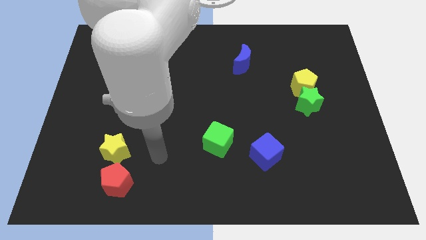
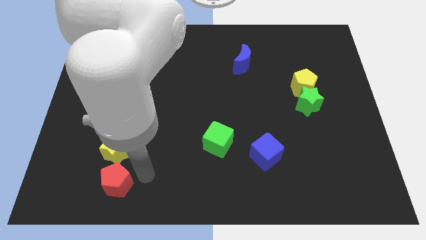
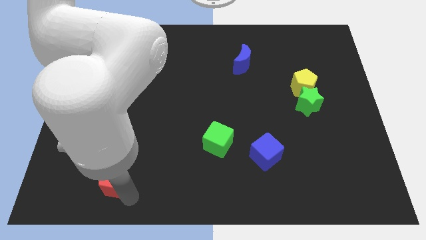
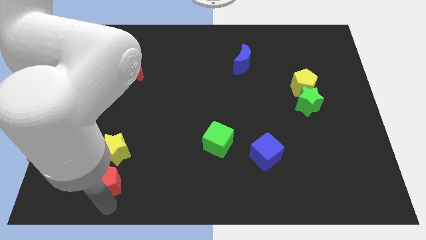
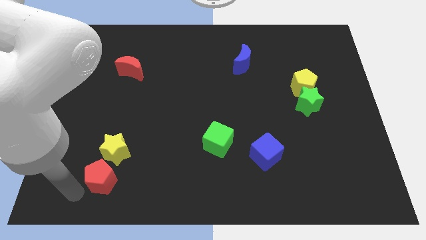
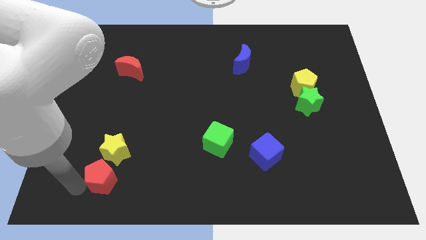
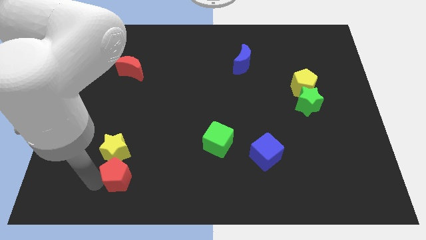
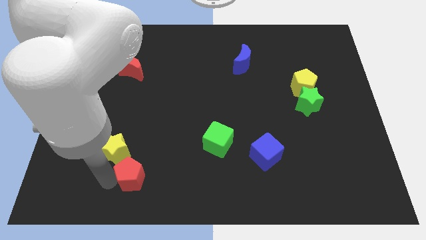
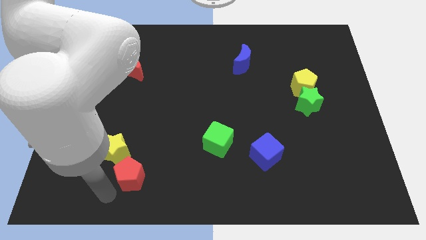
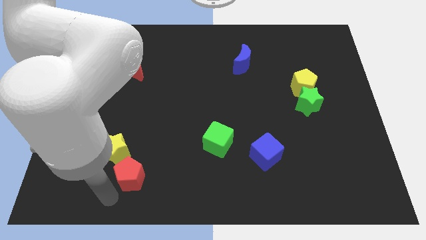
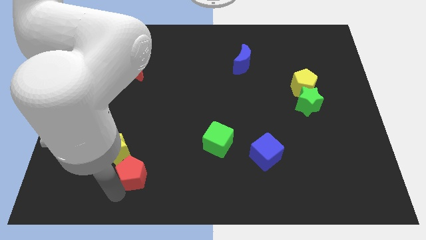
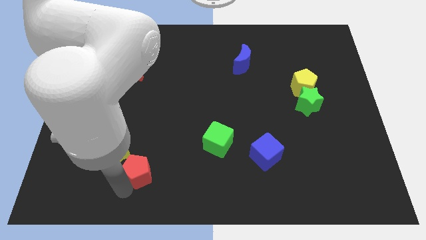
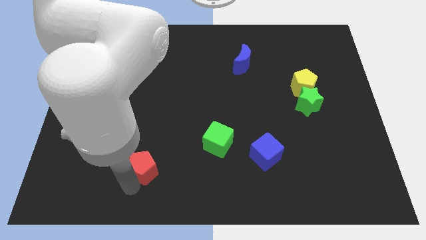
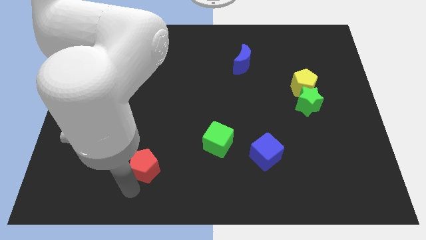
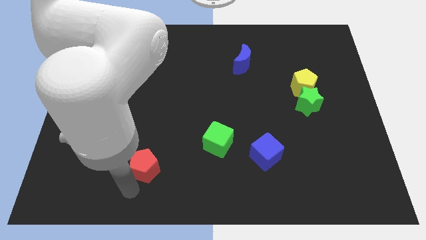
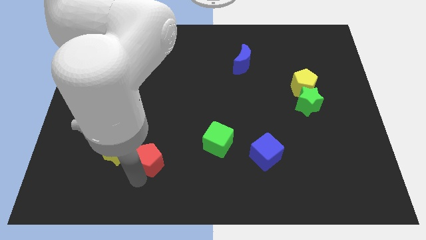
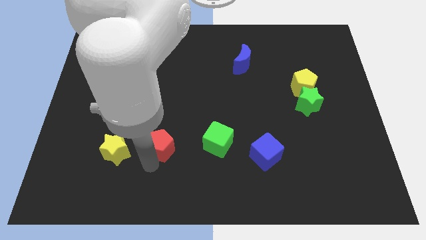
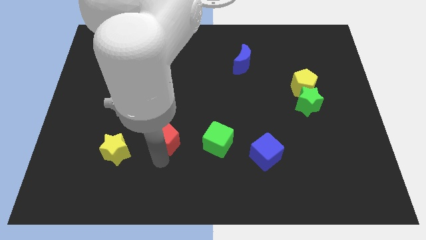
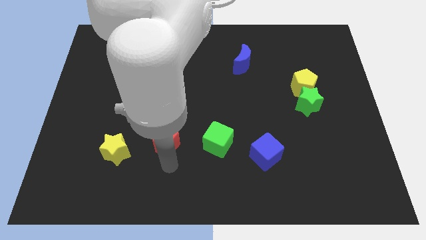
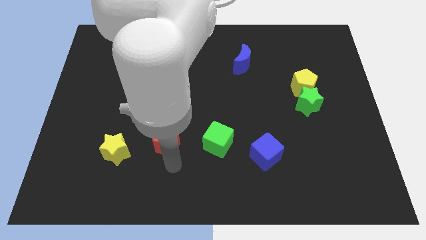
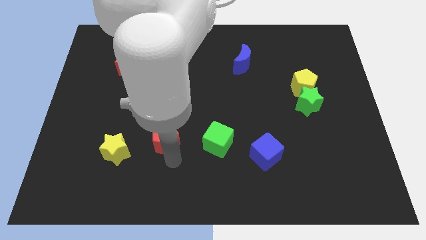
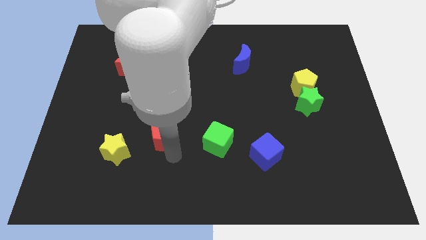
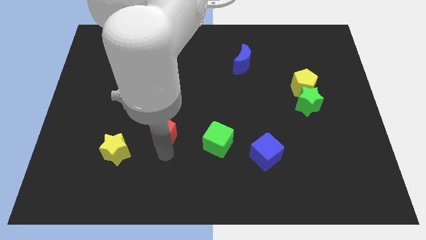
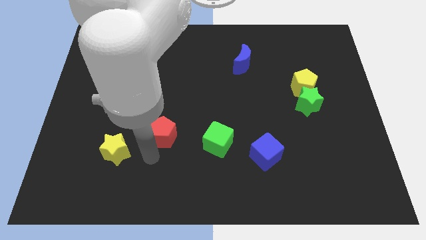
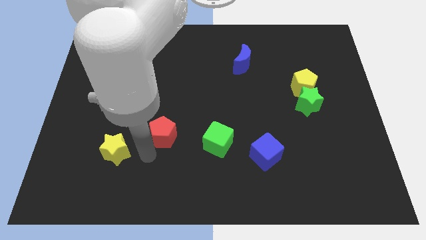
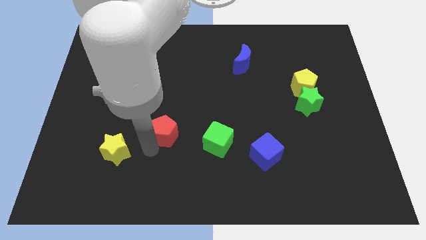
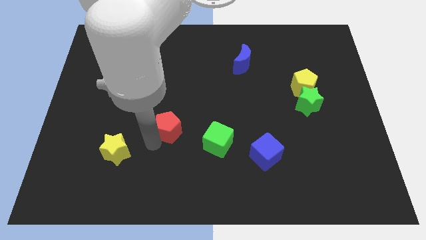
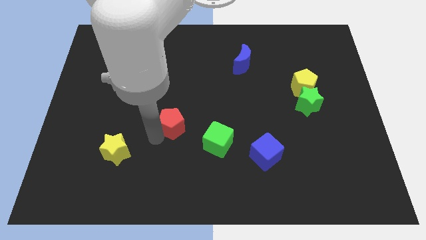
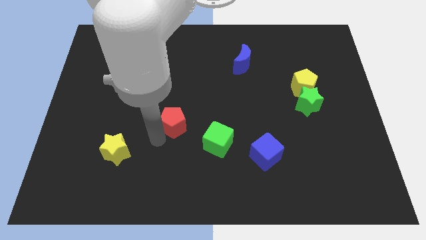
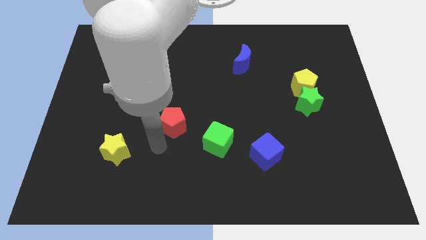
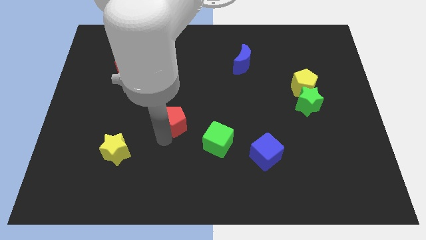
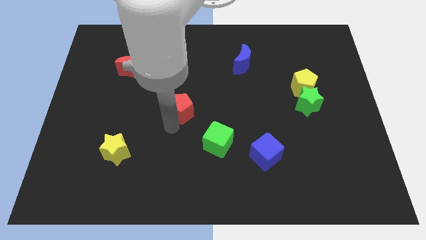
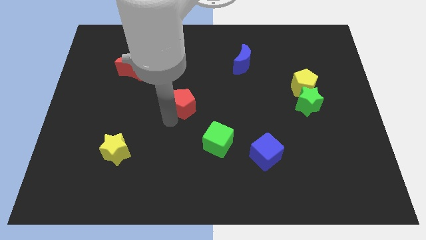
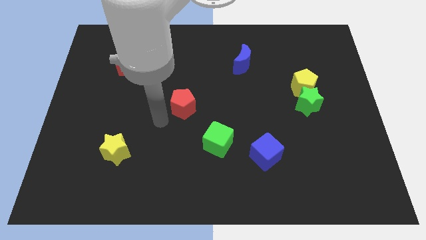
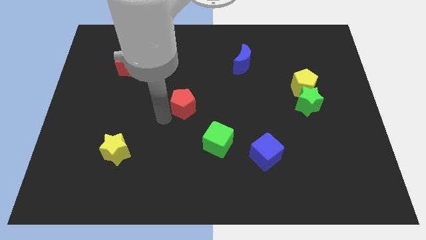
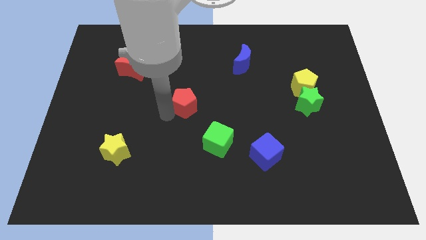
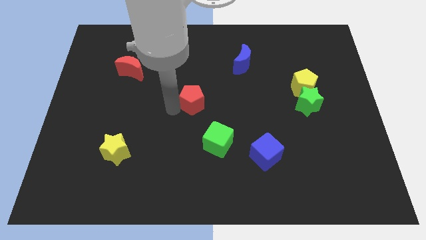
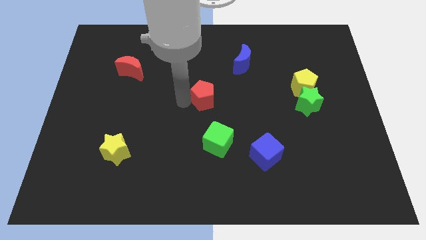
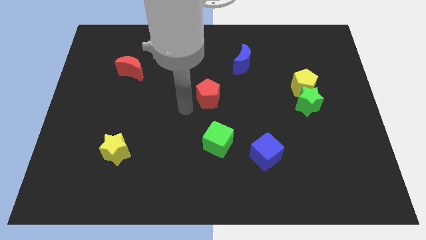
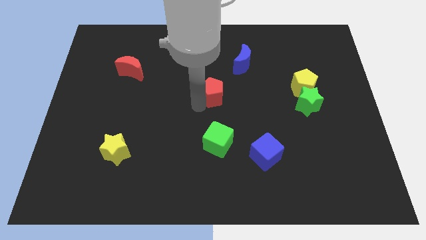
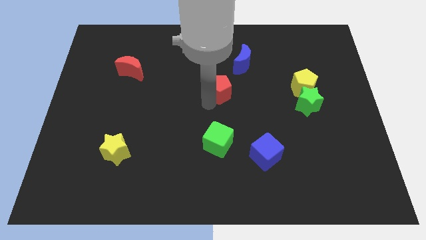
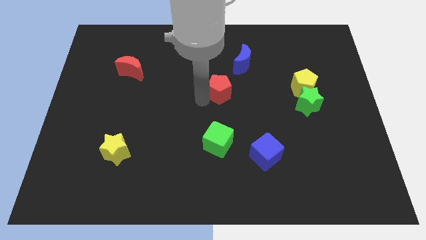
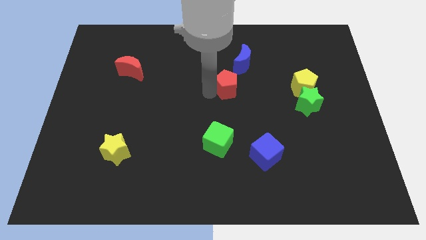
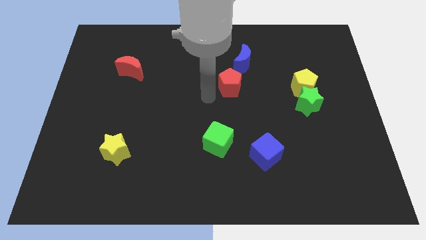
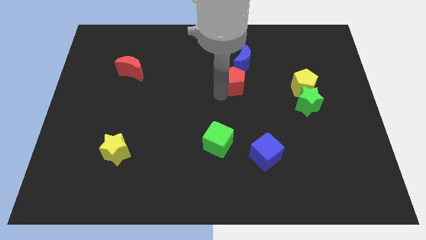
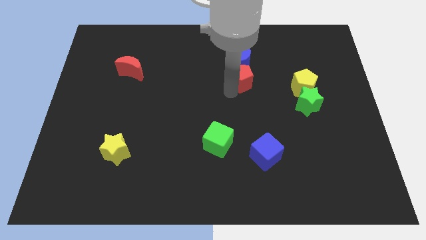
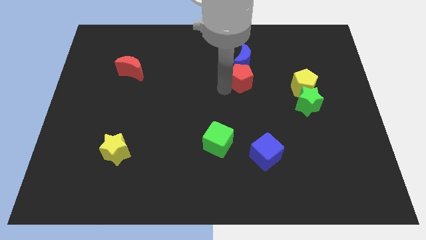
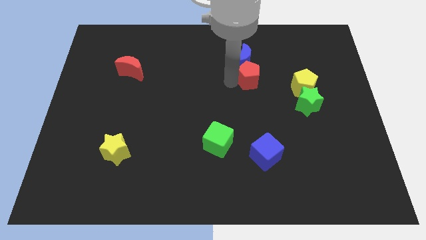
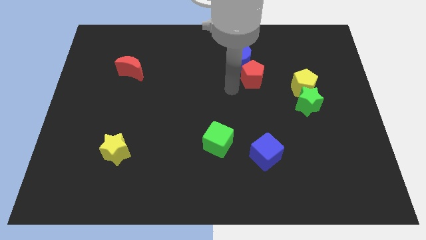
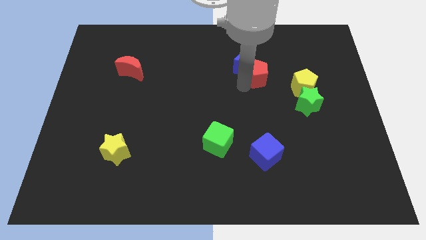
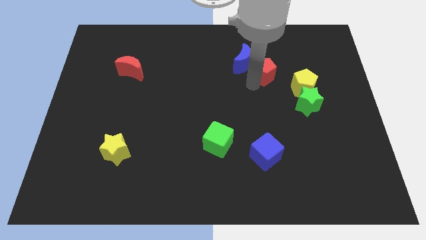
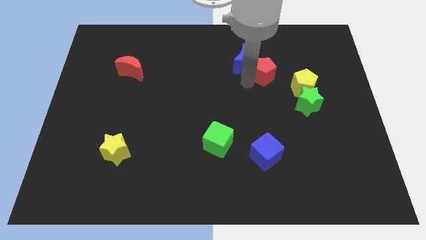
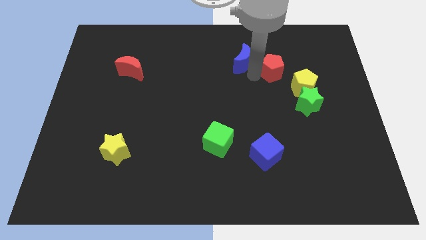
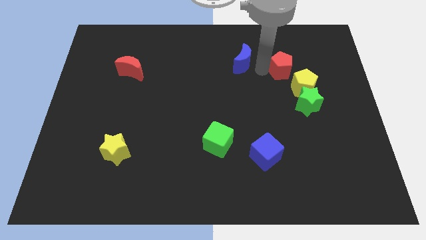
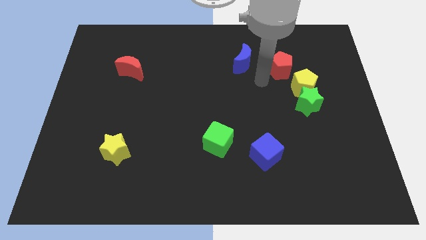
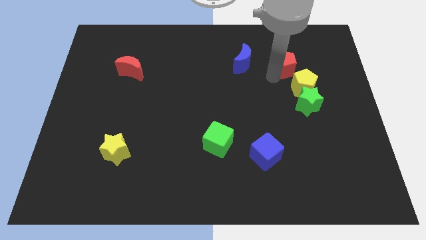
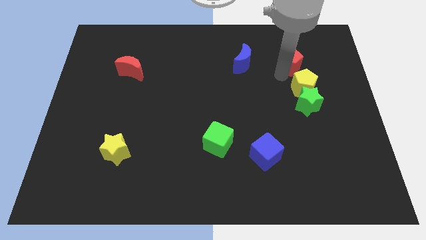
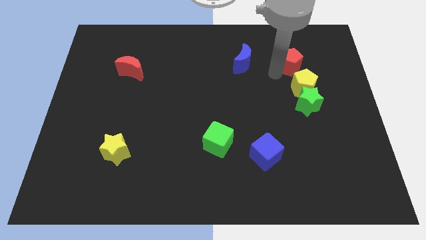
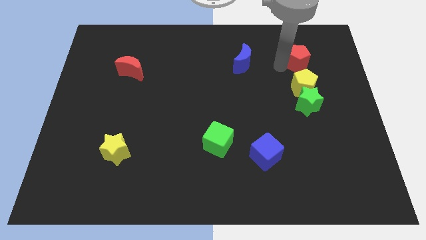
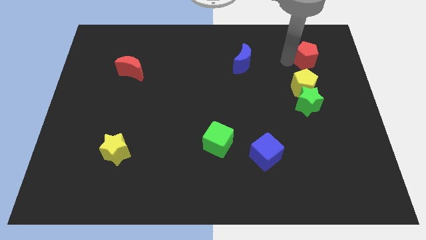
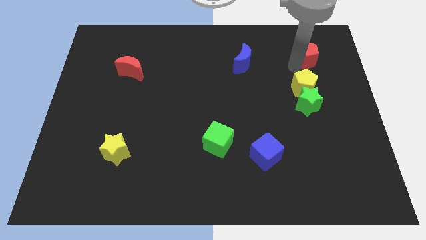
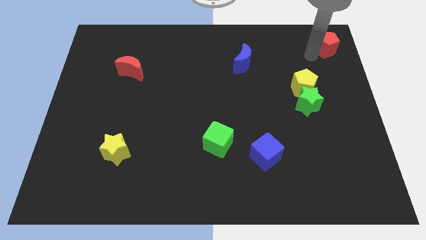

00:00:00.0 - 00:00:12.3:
push the red pentagon to the top right
